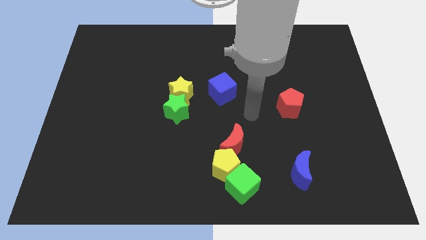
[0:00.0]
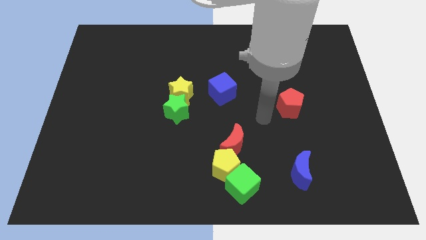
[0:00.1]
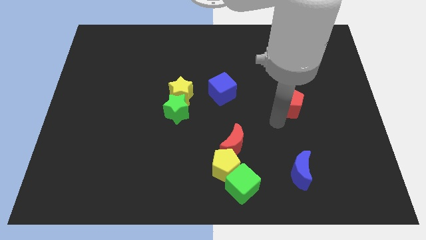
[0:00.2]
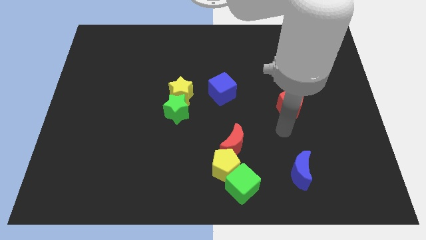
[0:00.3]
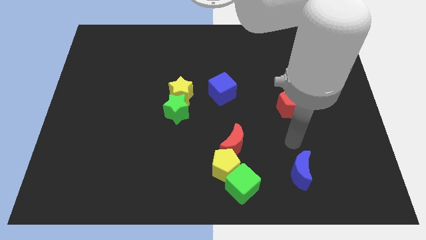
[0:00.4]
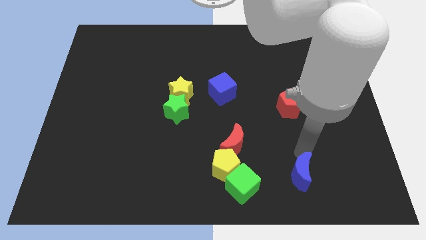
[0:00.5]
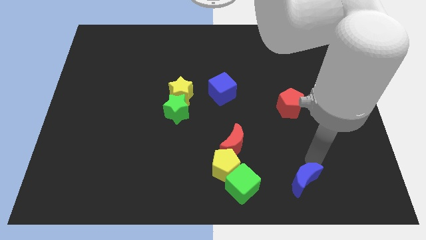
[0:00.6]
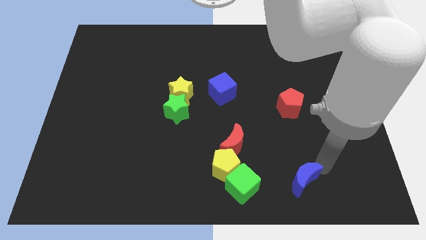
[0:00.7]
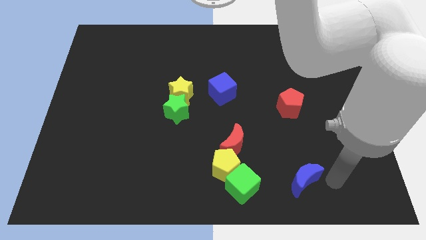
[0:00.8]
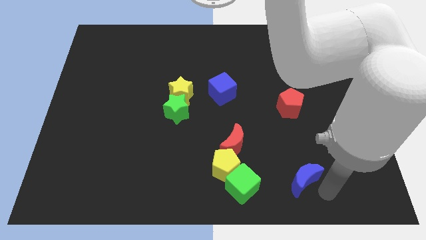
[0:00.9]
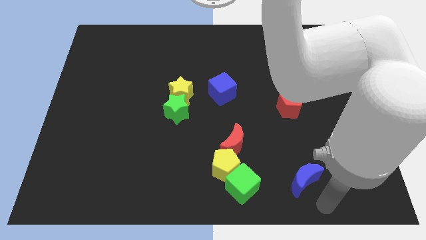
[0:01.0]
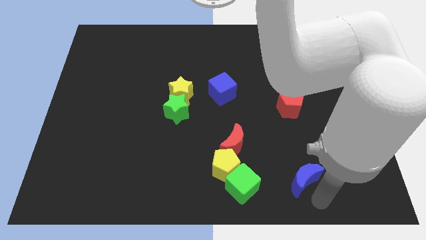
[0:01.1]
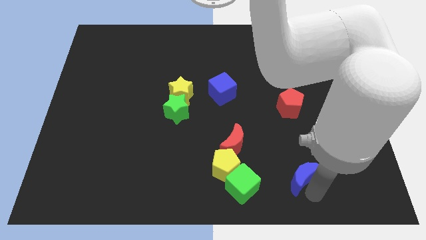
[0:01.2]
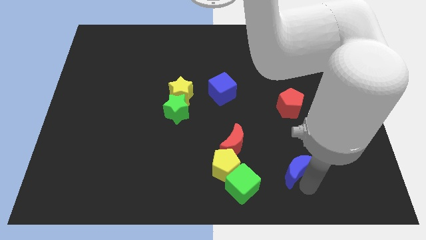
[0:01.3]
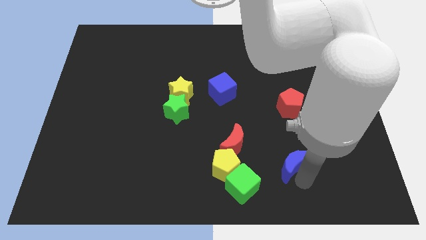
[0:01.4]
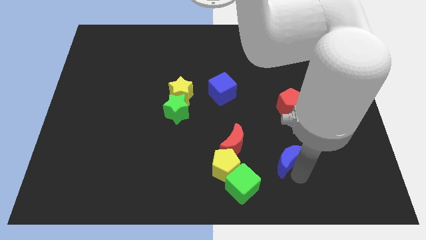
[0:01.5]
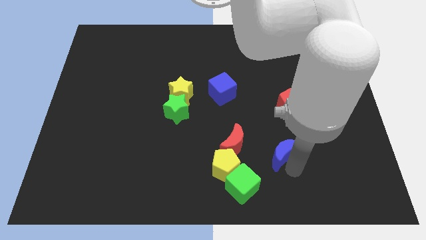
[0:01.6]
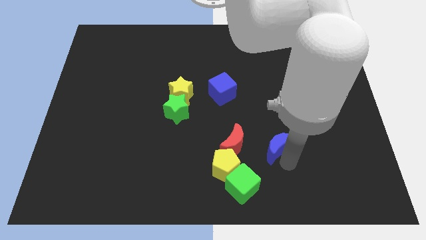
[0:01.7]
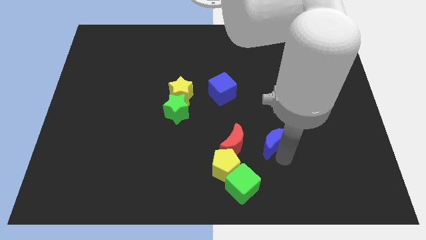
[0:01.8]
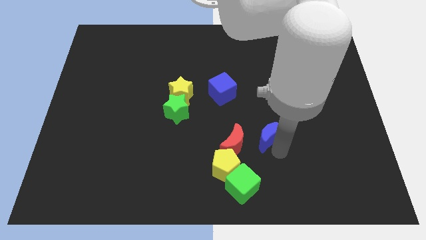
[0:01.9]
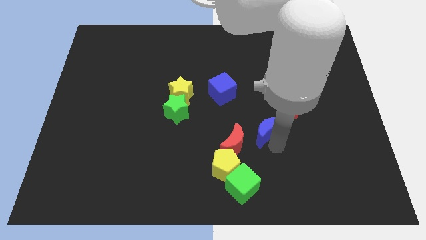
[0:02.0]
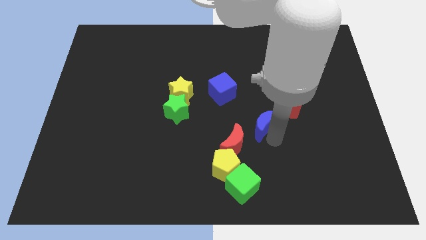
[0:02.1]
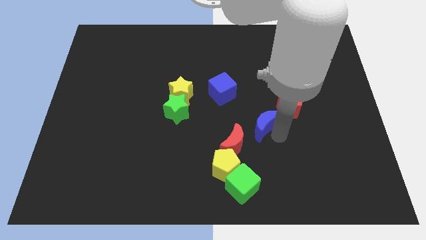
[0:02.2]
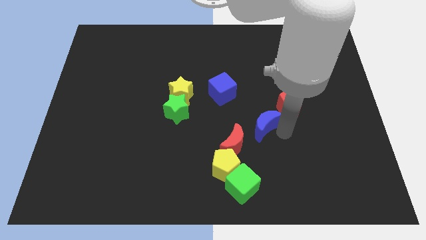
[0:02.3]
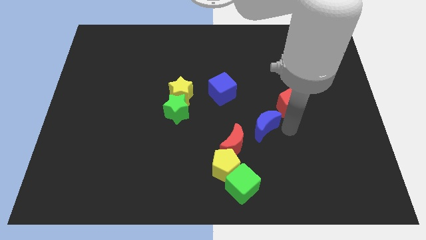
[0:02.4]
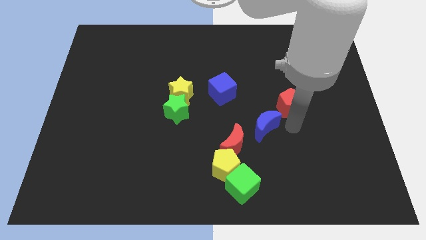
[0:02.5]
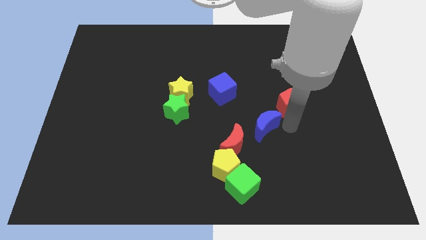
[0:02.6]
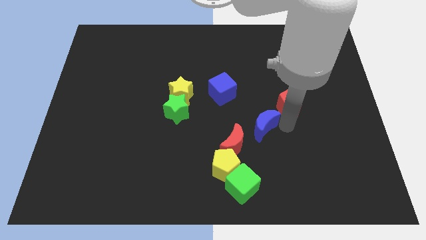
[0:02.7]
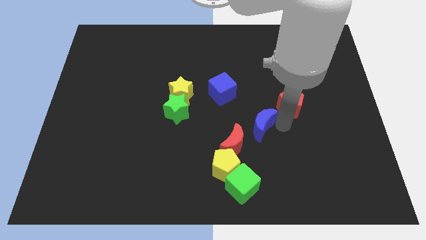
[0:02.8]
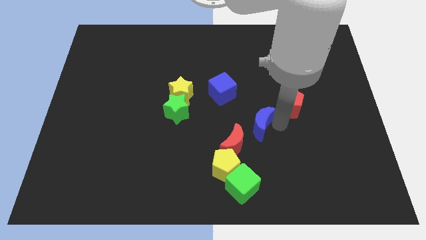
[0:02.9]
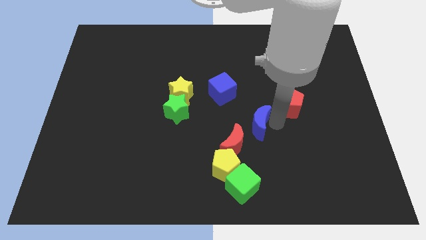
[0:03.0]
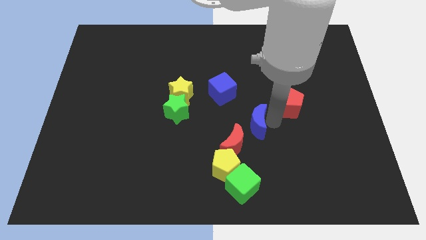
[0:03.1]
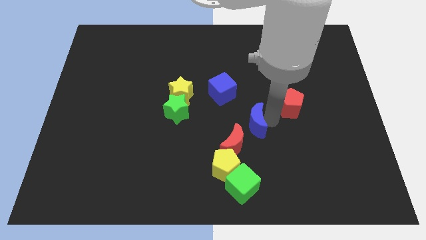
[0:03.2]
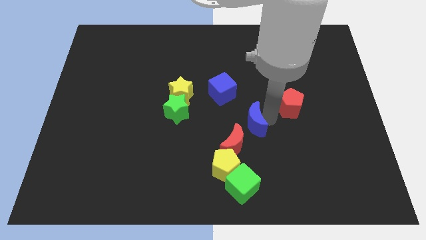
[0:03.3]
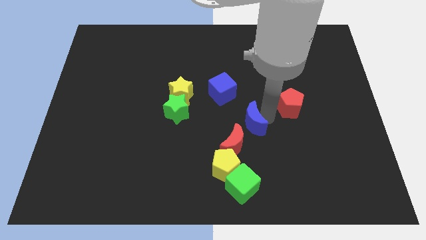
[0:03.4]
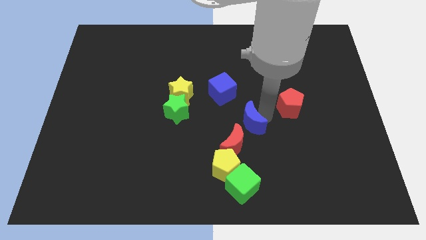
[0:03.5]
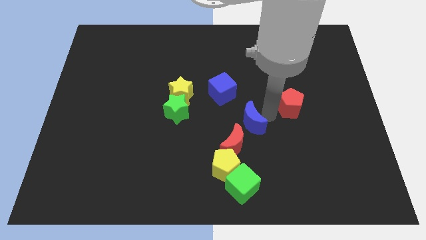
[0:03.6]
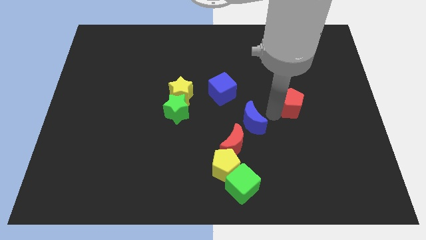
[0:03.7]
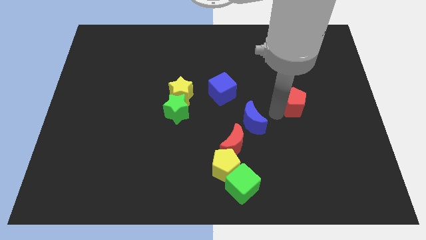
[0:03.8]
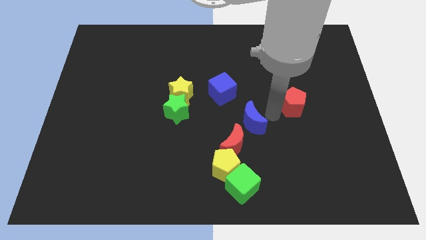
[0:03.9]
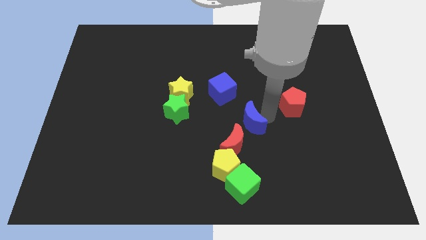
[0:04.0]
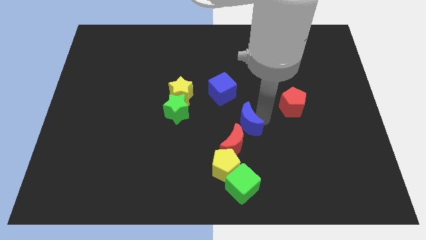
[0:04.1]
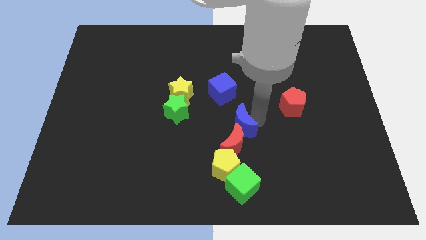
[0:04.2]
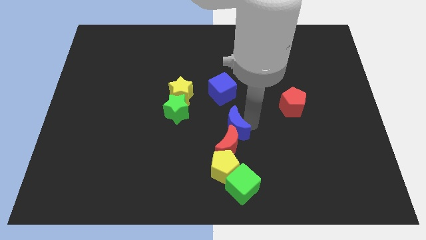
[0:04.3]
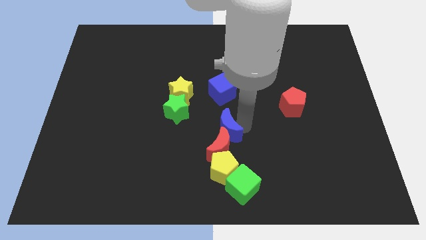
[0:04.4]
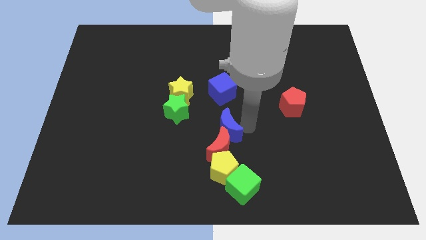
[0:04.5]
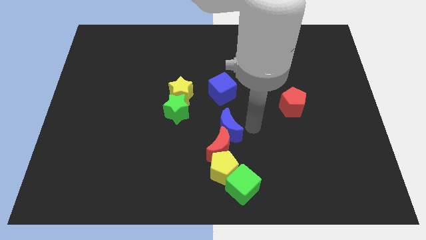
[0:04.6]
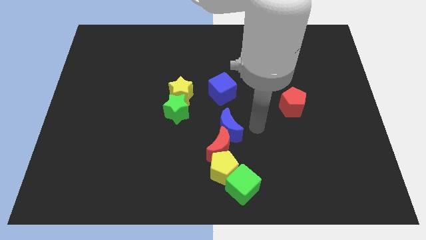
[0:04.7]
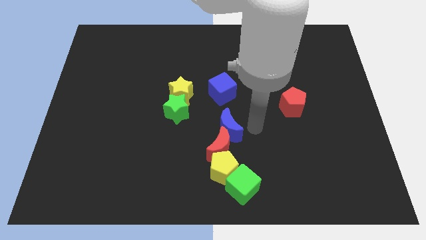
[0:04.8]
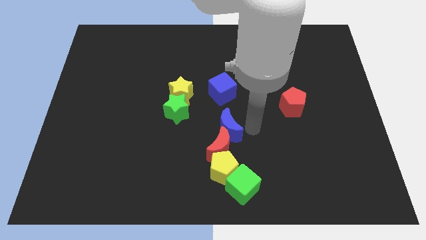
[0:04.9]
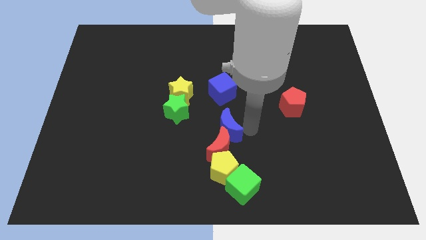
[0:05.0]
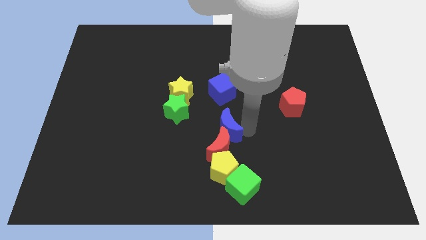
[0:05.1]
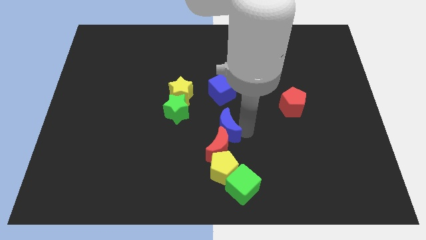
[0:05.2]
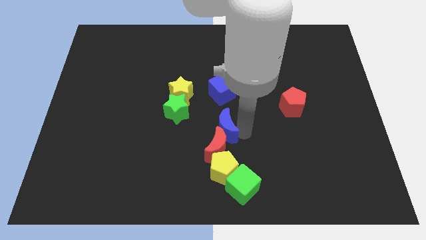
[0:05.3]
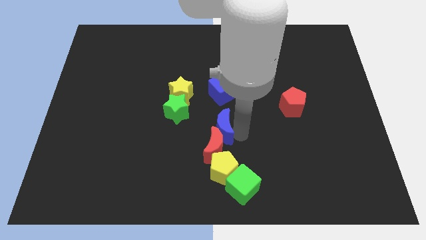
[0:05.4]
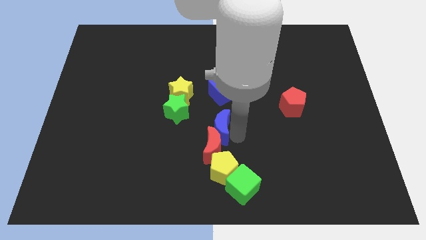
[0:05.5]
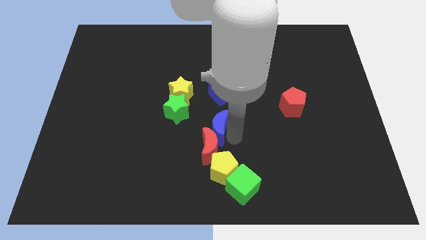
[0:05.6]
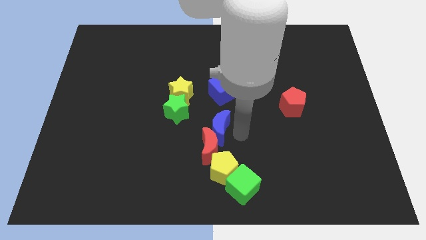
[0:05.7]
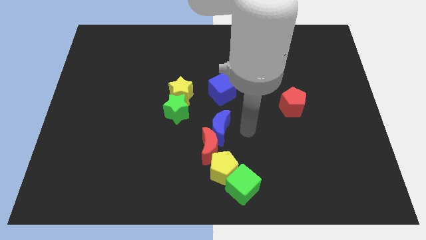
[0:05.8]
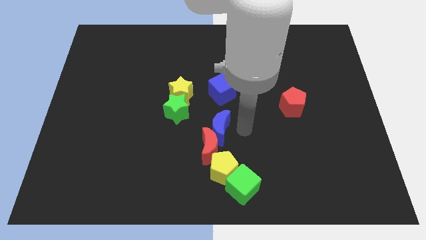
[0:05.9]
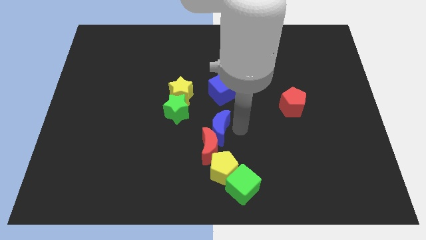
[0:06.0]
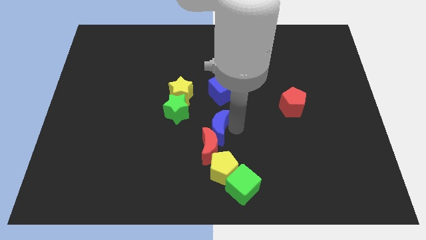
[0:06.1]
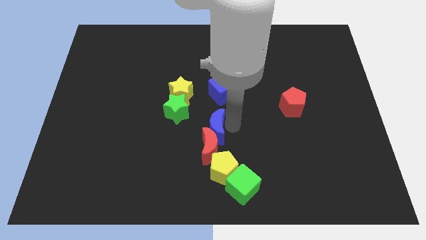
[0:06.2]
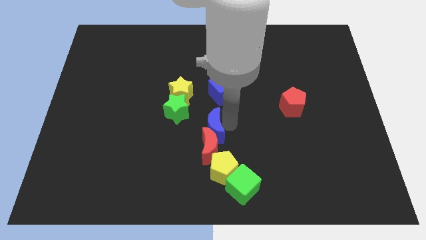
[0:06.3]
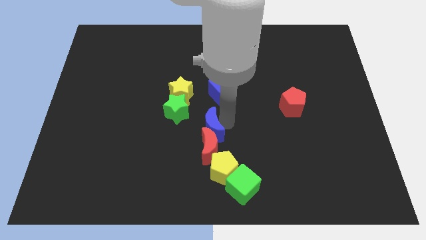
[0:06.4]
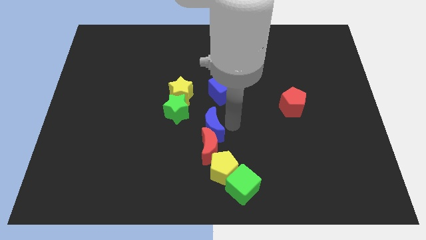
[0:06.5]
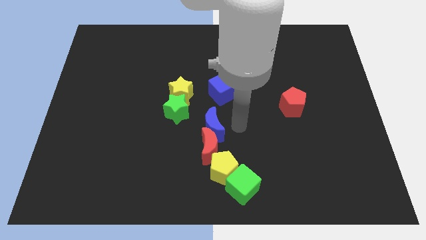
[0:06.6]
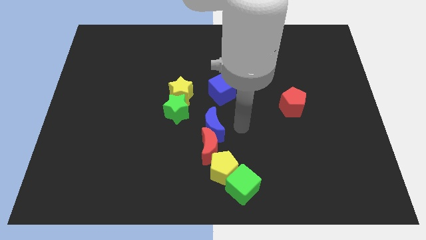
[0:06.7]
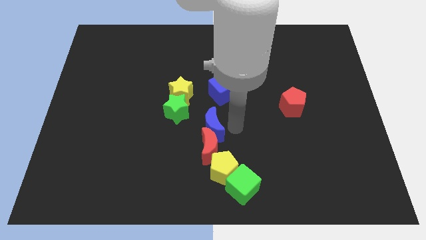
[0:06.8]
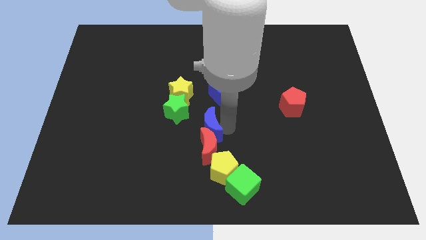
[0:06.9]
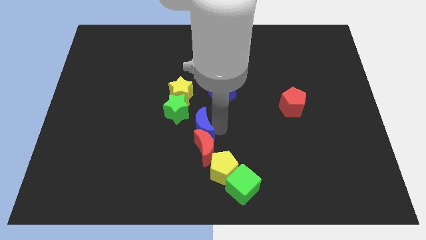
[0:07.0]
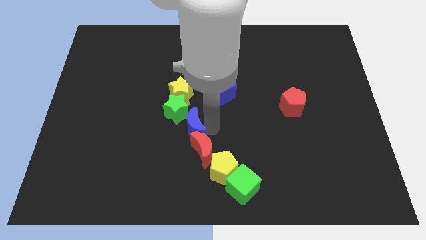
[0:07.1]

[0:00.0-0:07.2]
slide the blue moon below the yellow star
